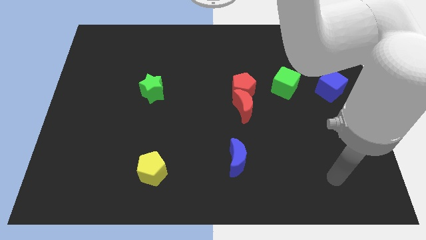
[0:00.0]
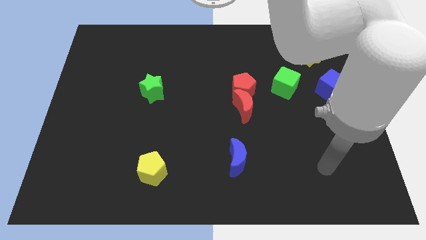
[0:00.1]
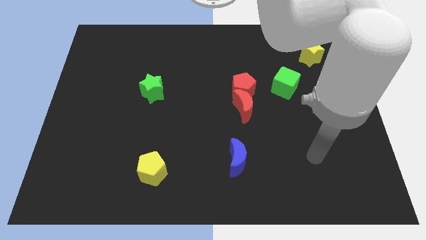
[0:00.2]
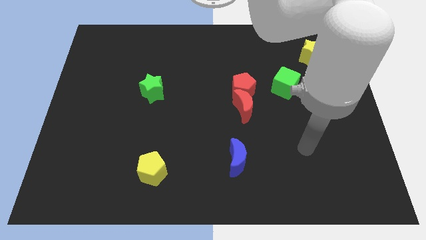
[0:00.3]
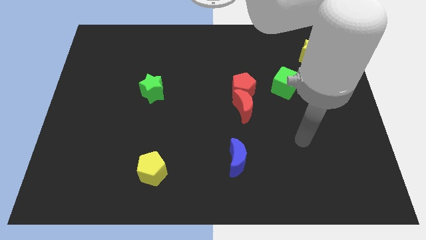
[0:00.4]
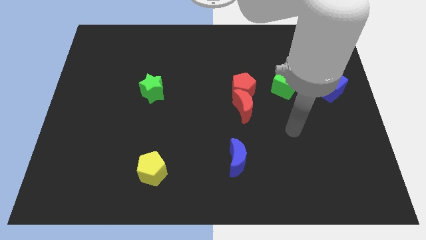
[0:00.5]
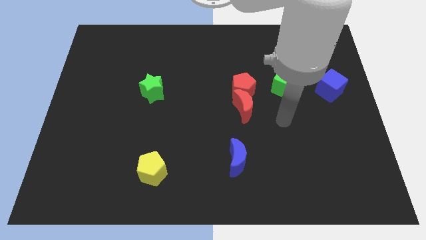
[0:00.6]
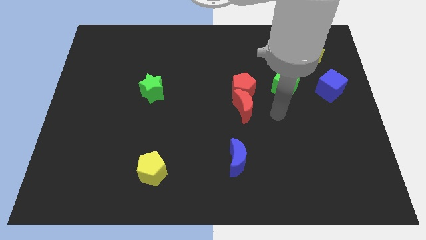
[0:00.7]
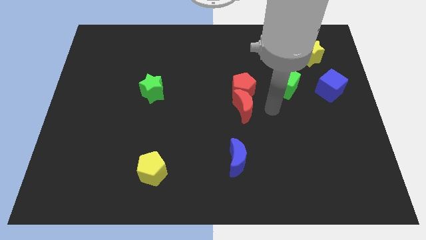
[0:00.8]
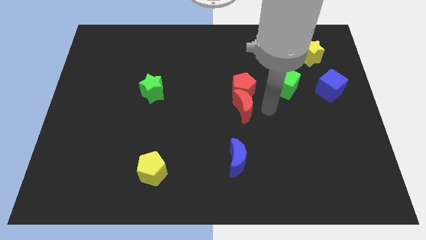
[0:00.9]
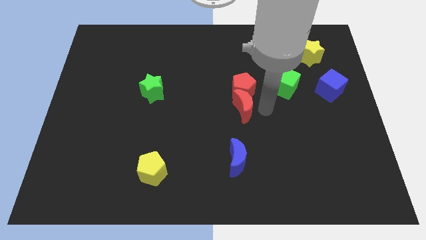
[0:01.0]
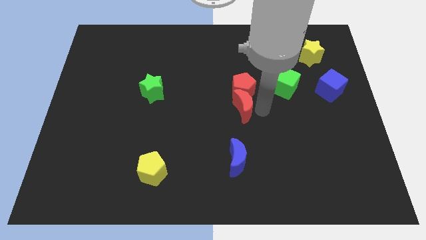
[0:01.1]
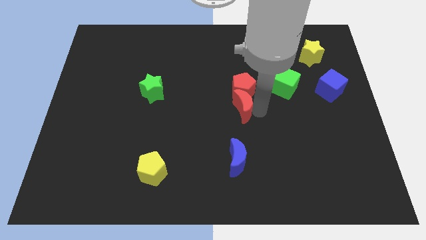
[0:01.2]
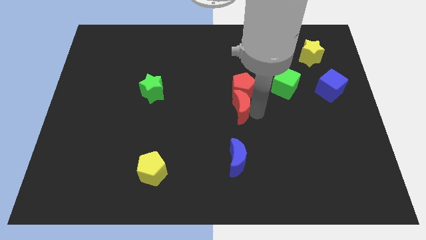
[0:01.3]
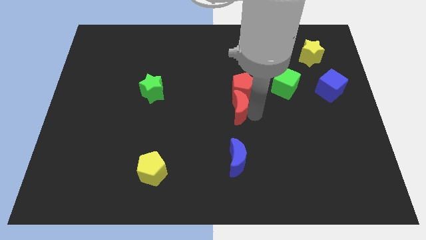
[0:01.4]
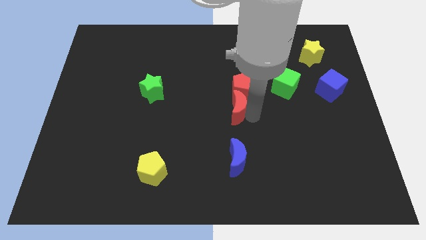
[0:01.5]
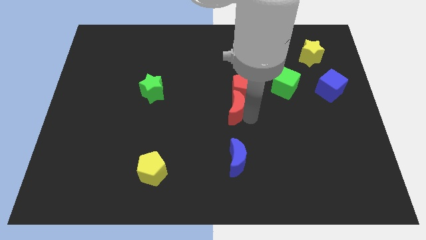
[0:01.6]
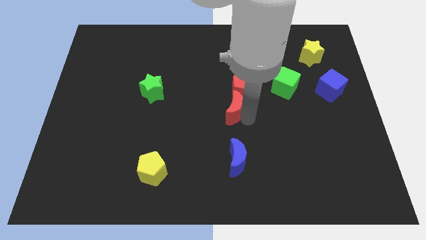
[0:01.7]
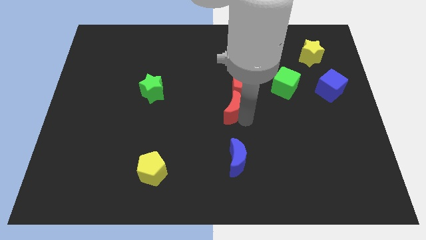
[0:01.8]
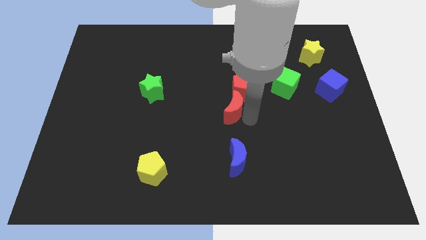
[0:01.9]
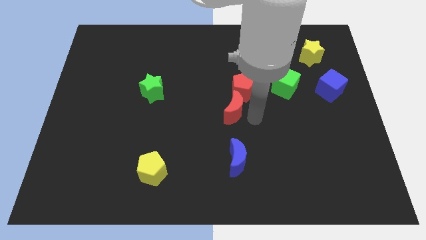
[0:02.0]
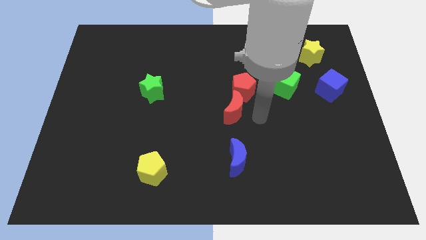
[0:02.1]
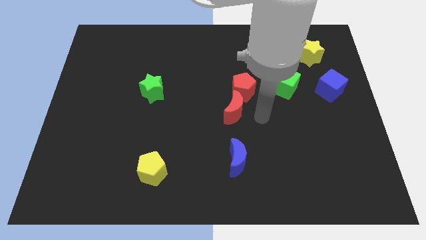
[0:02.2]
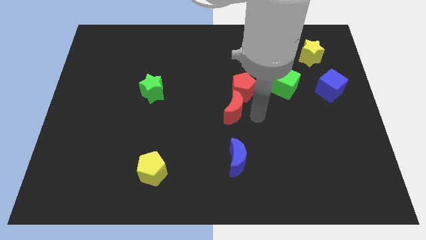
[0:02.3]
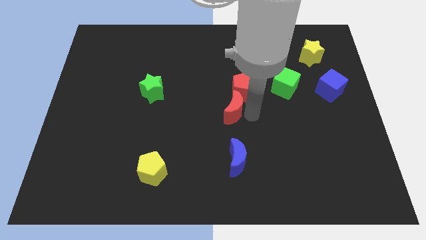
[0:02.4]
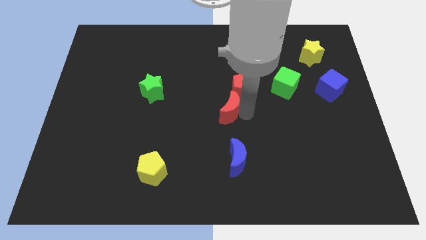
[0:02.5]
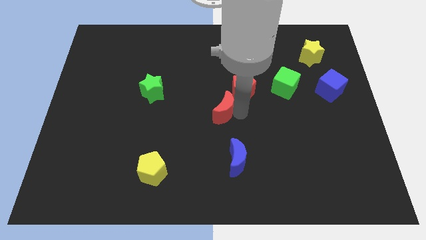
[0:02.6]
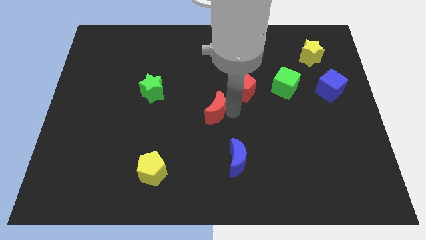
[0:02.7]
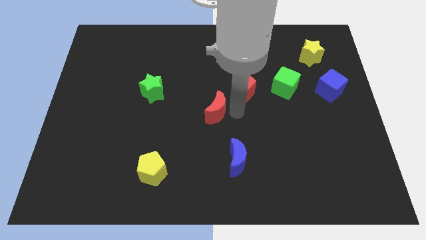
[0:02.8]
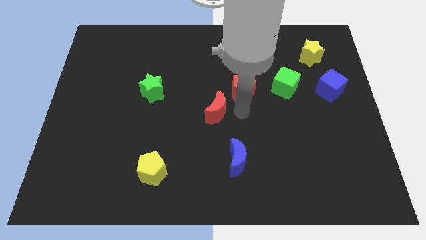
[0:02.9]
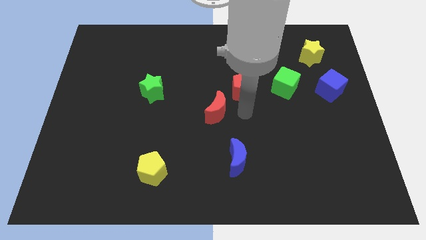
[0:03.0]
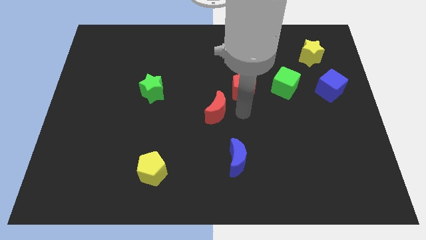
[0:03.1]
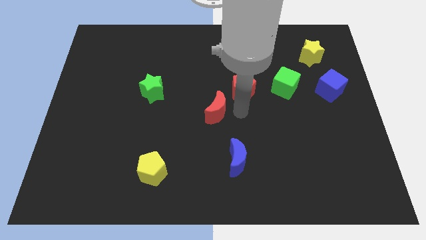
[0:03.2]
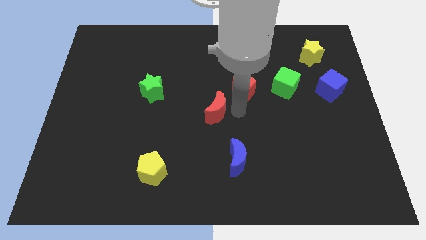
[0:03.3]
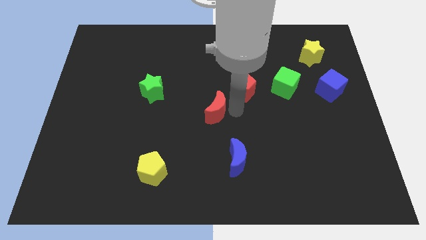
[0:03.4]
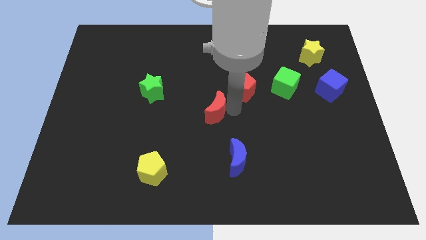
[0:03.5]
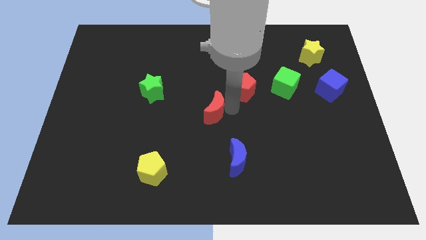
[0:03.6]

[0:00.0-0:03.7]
slide the red moon slightly to the left

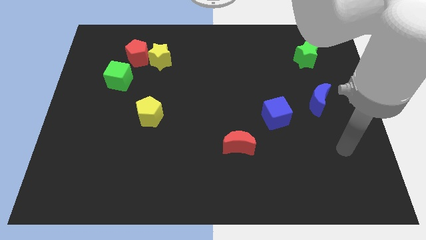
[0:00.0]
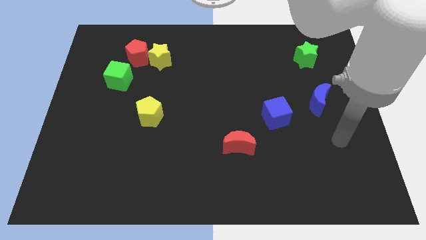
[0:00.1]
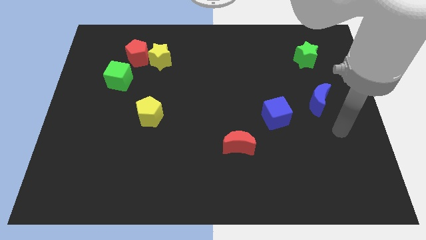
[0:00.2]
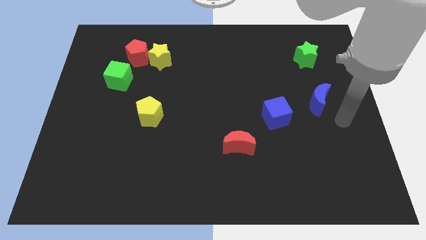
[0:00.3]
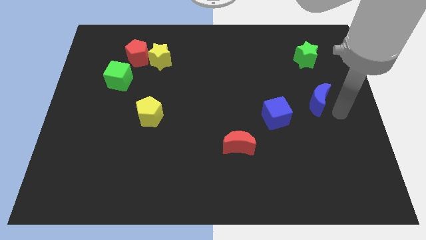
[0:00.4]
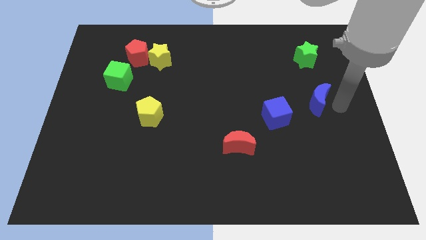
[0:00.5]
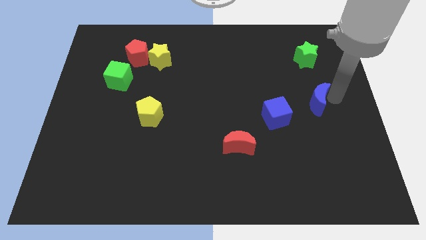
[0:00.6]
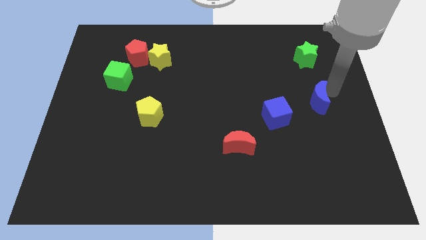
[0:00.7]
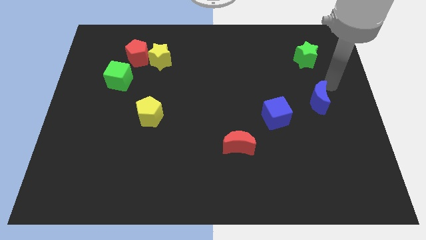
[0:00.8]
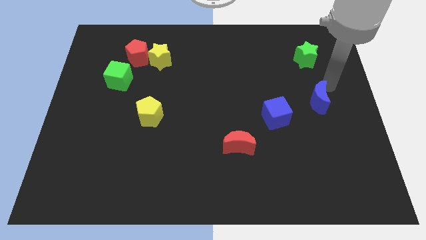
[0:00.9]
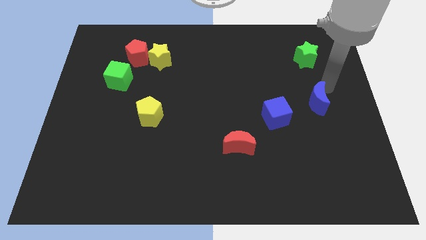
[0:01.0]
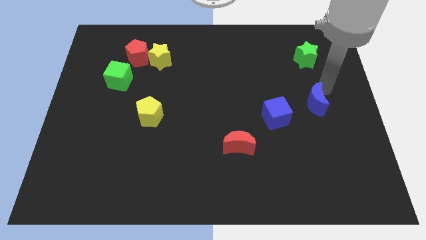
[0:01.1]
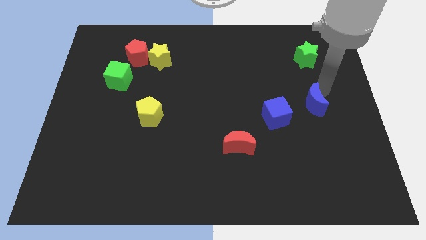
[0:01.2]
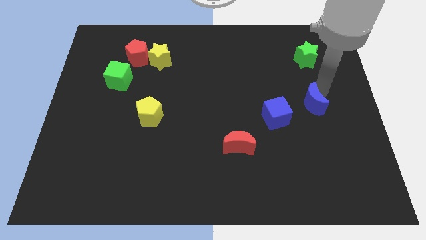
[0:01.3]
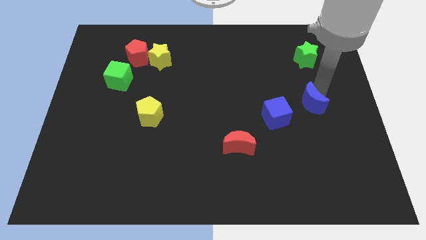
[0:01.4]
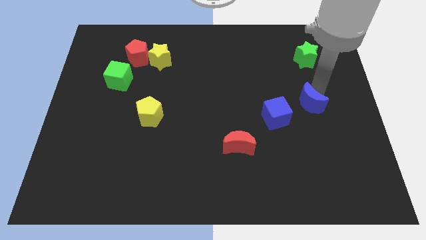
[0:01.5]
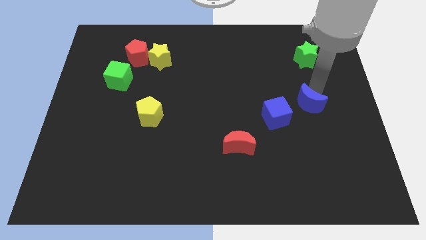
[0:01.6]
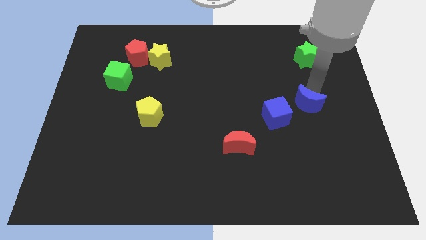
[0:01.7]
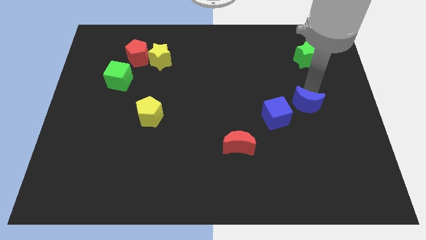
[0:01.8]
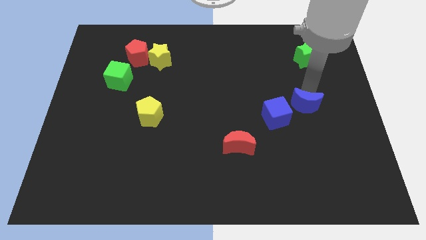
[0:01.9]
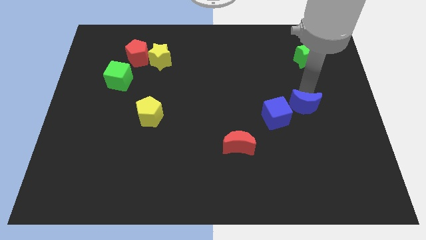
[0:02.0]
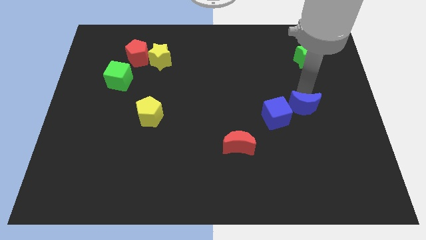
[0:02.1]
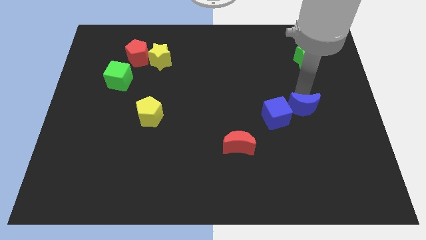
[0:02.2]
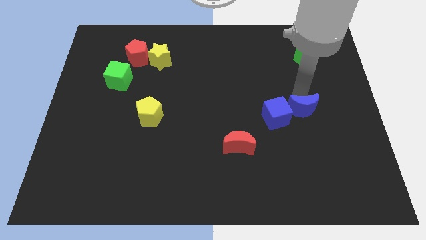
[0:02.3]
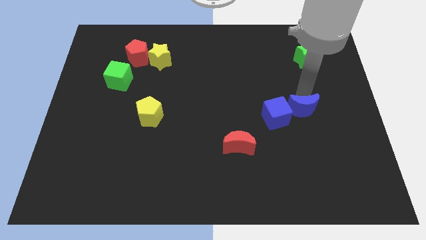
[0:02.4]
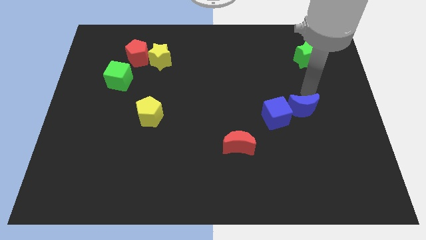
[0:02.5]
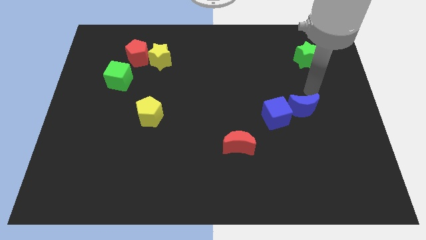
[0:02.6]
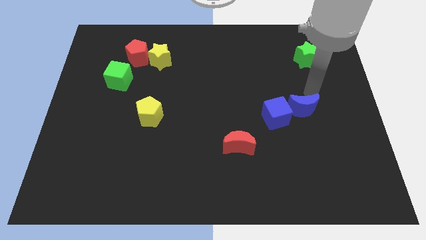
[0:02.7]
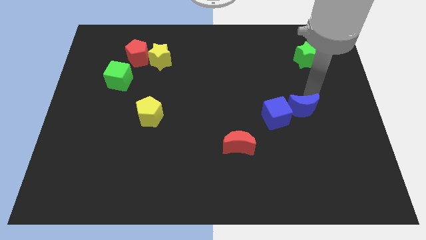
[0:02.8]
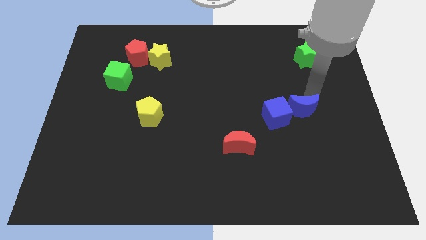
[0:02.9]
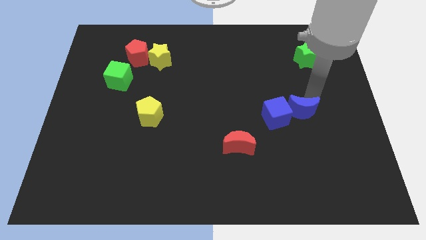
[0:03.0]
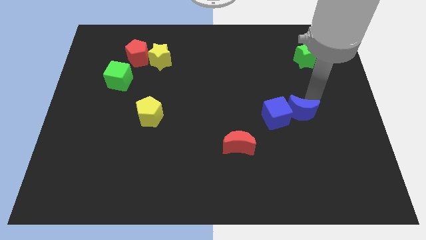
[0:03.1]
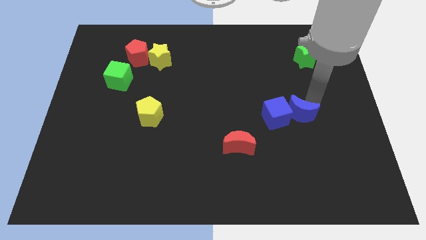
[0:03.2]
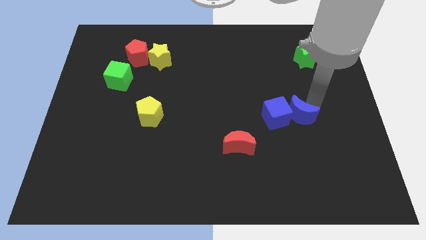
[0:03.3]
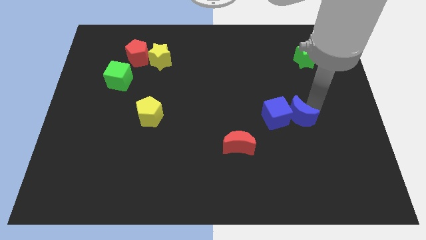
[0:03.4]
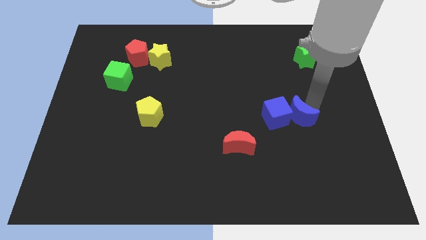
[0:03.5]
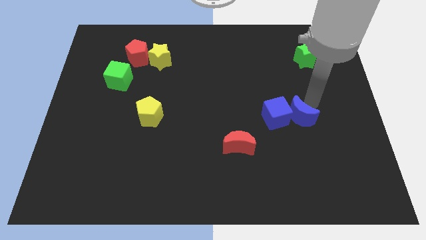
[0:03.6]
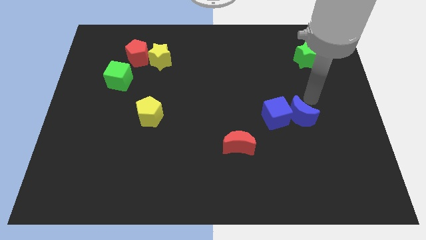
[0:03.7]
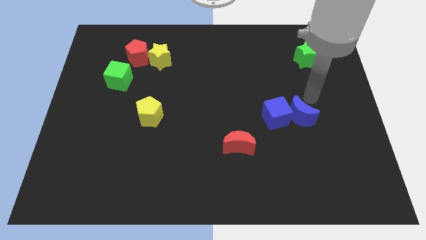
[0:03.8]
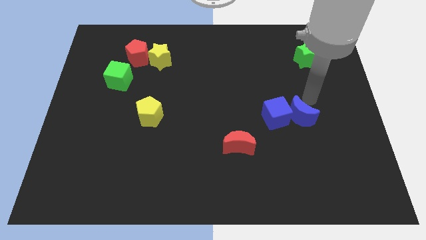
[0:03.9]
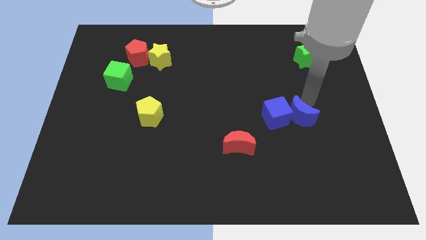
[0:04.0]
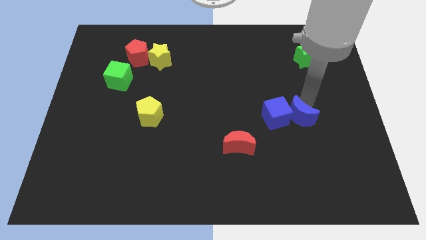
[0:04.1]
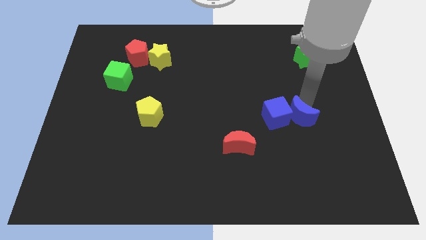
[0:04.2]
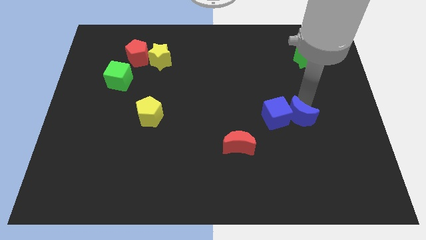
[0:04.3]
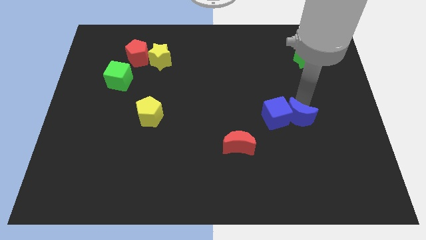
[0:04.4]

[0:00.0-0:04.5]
slide the blue moon a bit downwards and to the left
